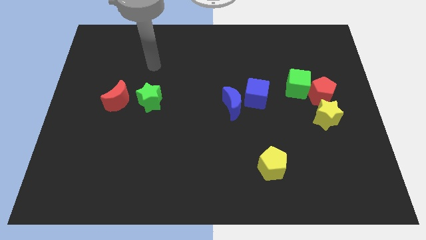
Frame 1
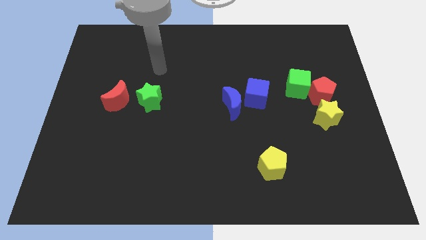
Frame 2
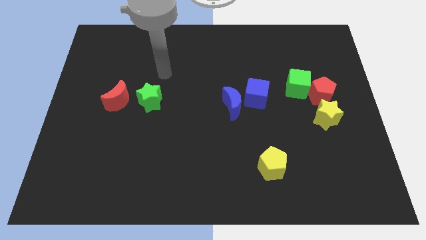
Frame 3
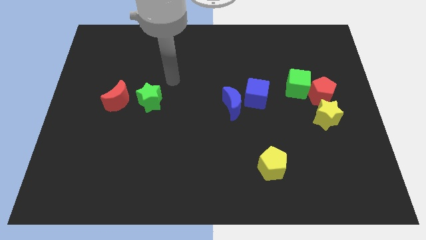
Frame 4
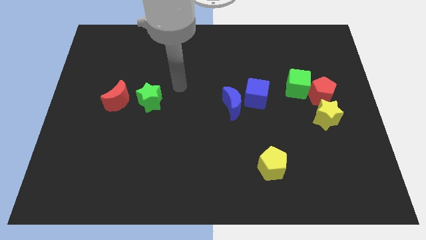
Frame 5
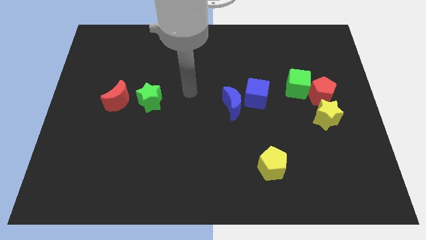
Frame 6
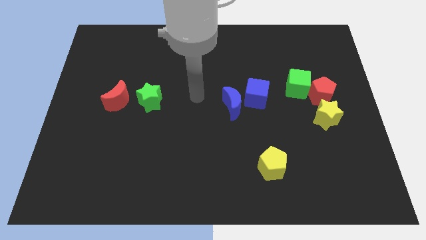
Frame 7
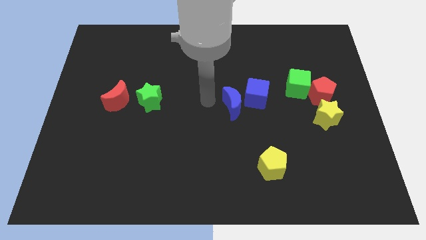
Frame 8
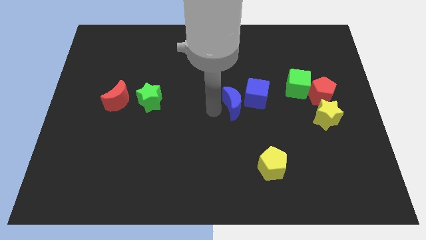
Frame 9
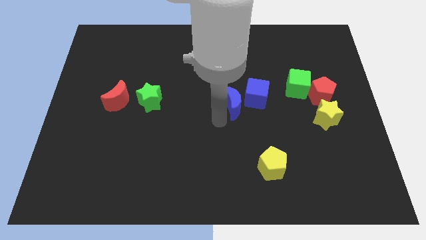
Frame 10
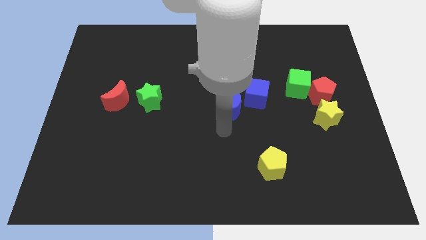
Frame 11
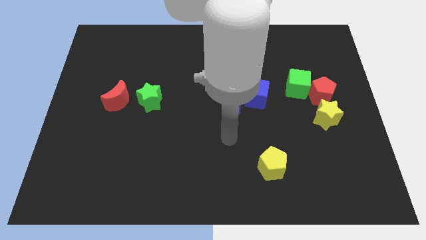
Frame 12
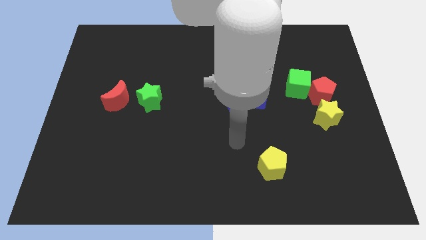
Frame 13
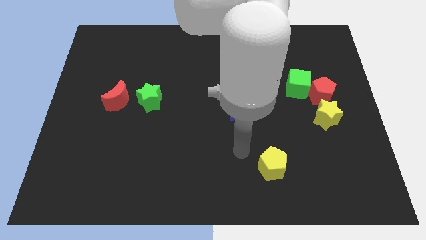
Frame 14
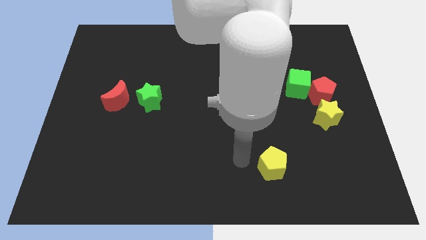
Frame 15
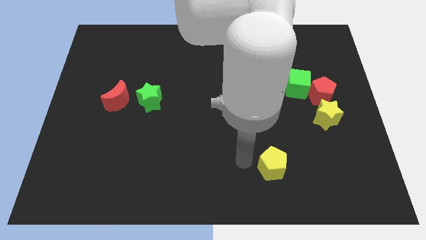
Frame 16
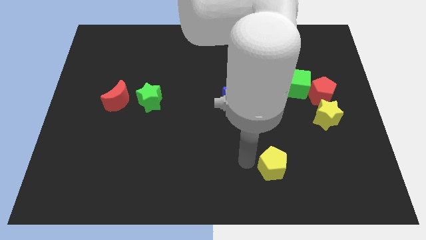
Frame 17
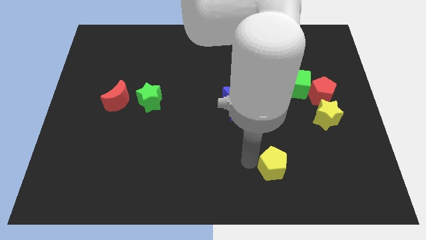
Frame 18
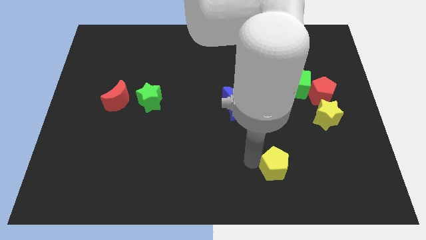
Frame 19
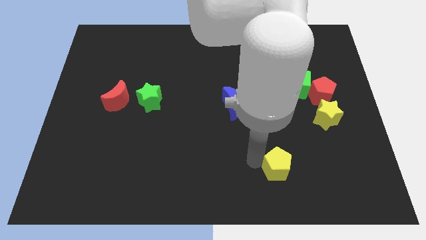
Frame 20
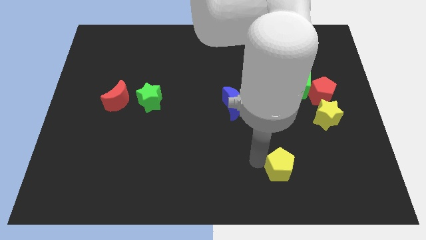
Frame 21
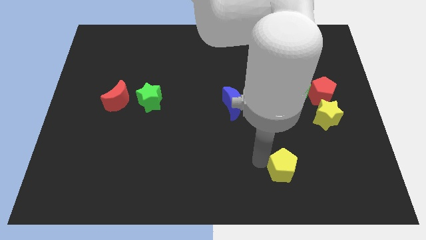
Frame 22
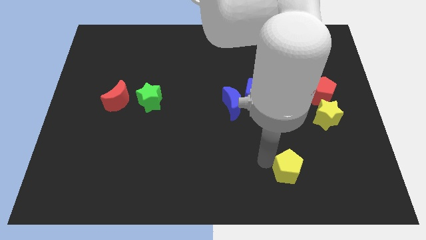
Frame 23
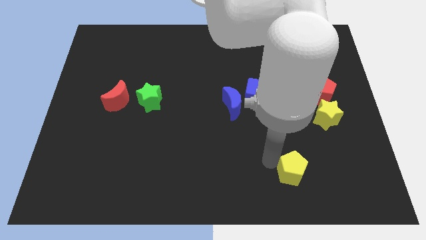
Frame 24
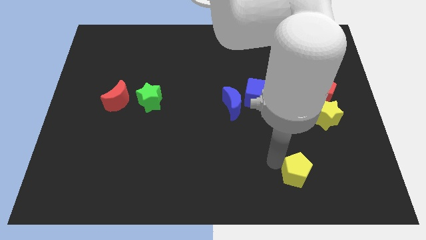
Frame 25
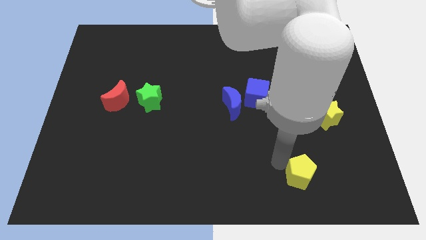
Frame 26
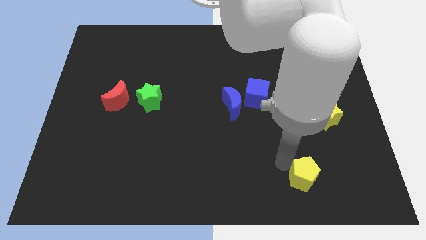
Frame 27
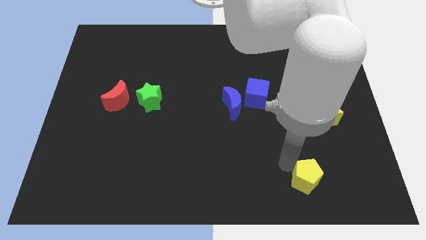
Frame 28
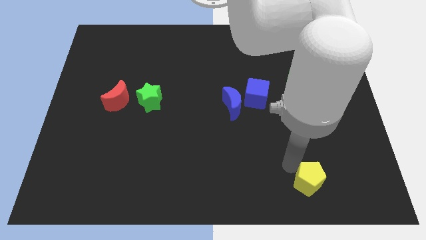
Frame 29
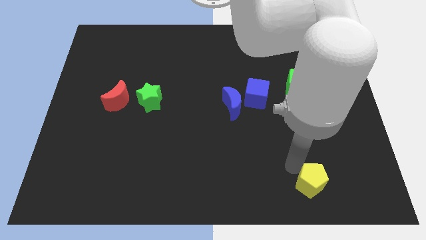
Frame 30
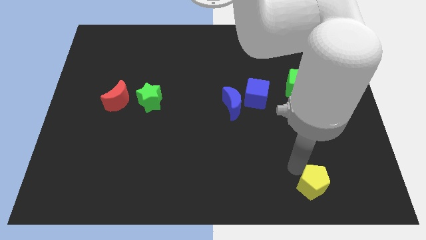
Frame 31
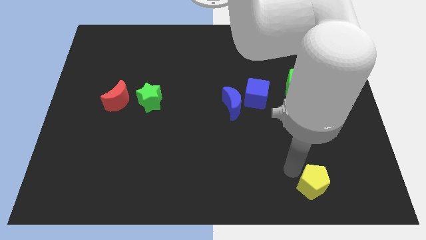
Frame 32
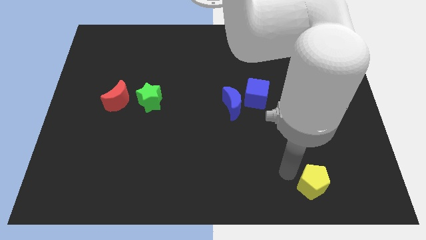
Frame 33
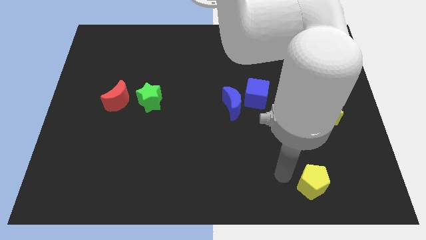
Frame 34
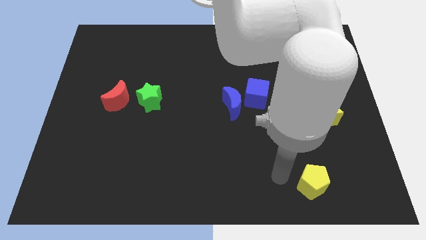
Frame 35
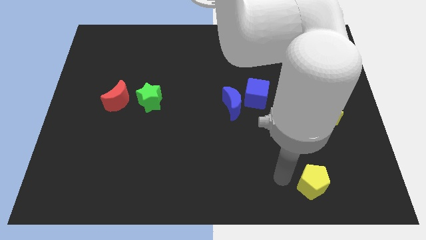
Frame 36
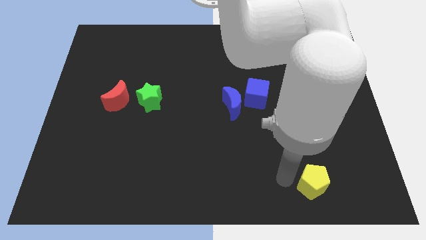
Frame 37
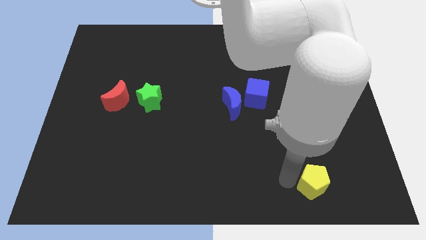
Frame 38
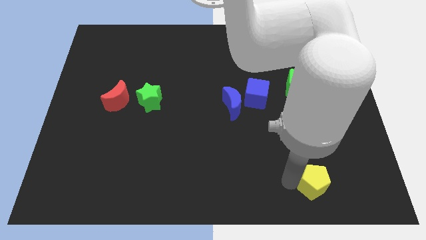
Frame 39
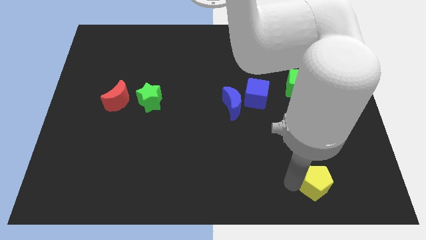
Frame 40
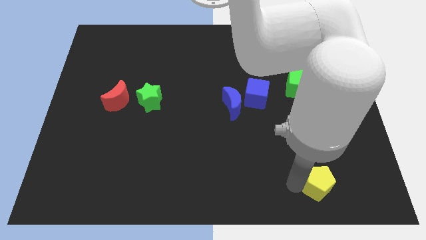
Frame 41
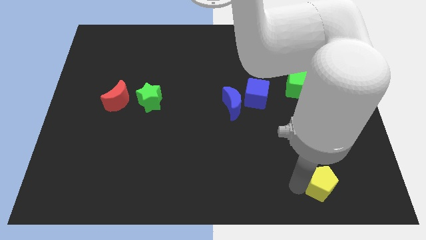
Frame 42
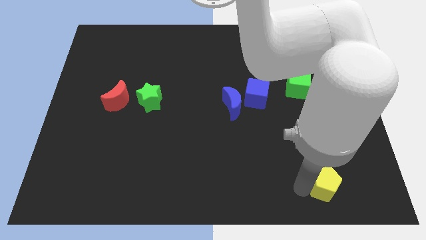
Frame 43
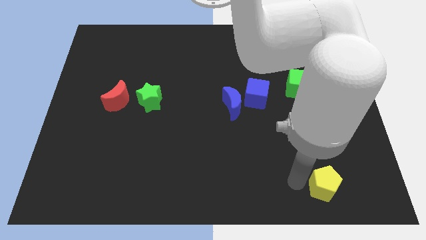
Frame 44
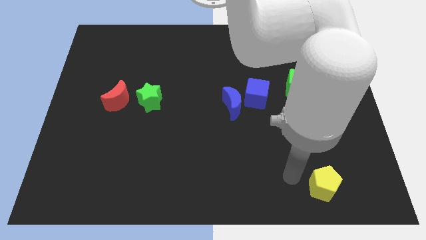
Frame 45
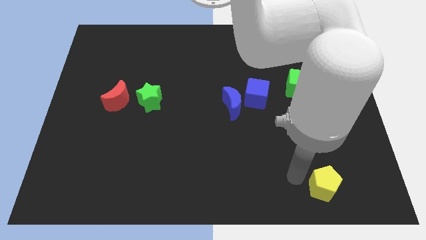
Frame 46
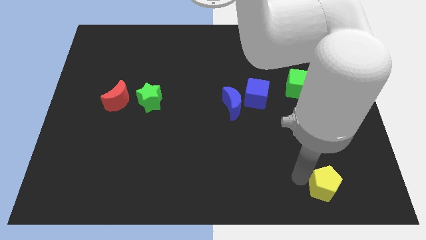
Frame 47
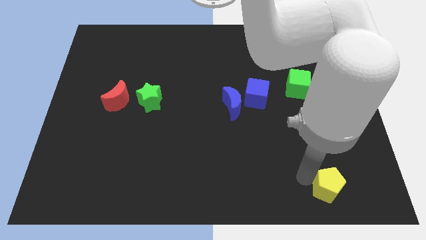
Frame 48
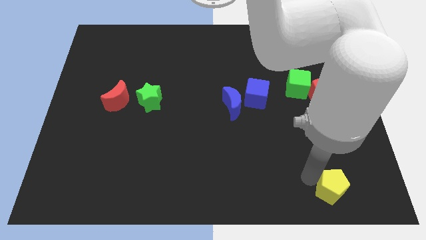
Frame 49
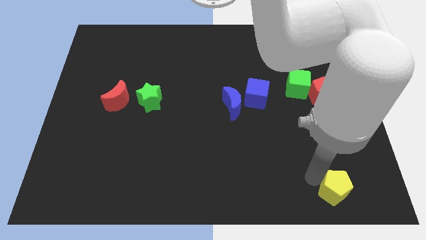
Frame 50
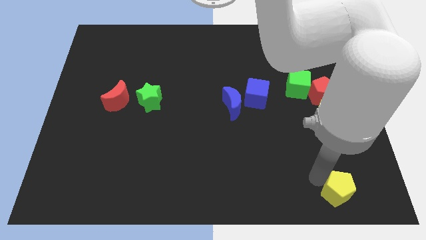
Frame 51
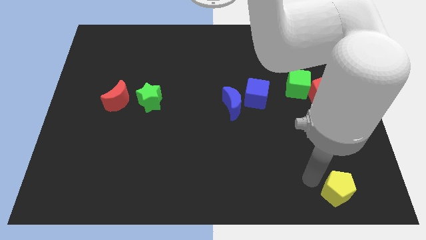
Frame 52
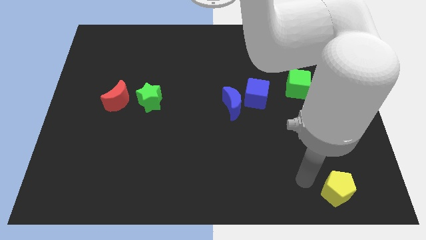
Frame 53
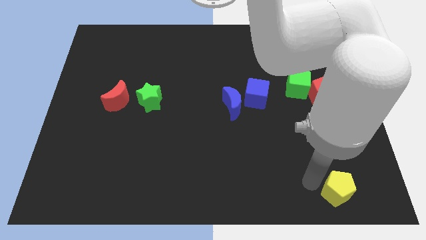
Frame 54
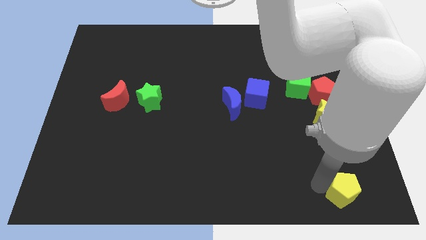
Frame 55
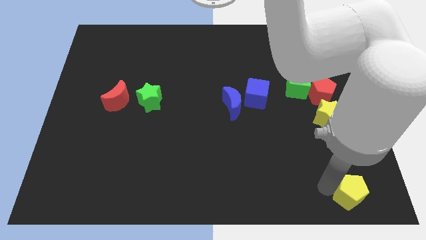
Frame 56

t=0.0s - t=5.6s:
push the yellow pentagon to the bottom right corner
